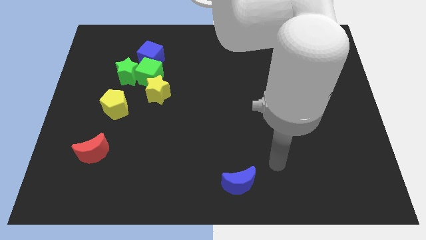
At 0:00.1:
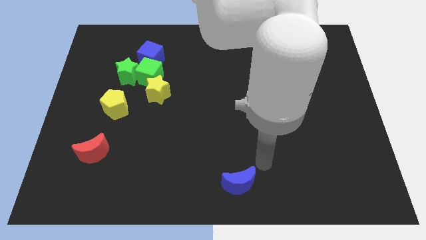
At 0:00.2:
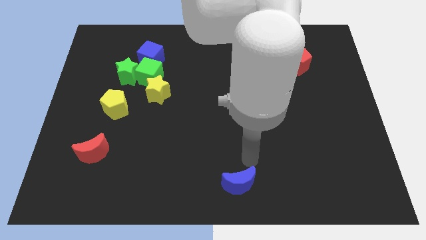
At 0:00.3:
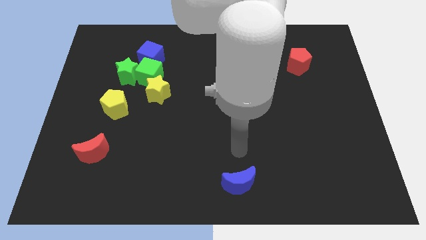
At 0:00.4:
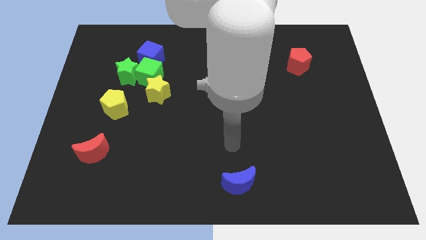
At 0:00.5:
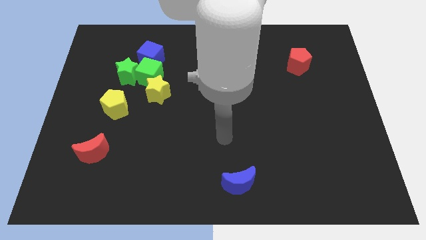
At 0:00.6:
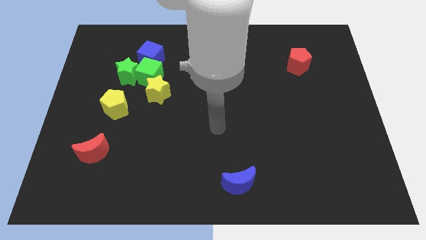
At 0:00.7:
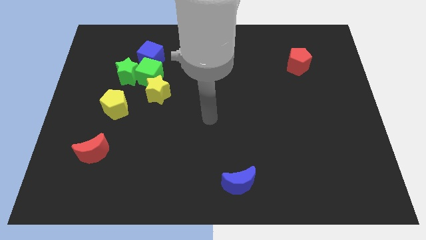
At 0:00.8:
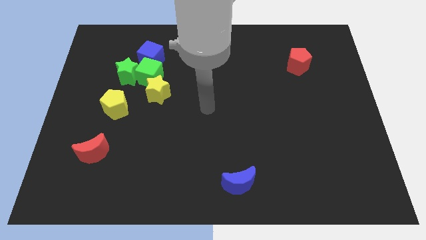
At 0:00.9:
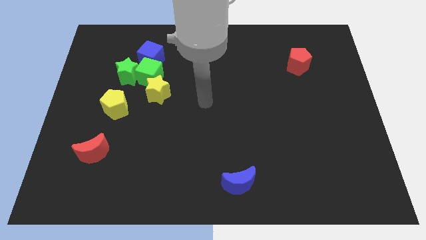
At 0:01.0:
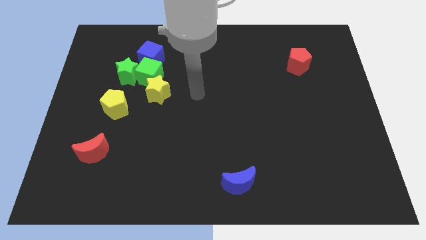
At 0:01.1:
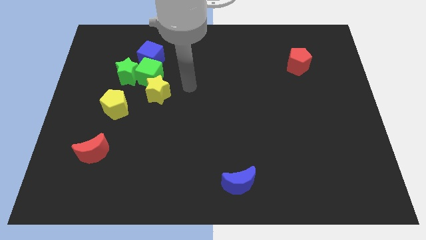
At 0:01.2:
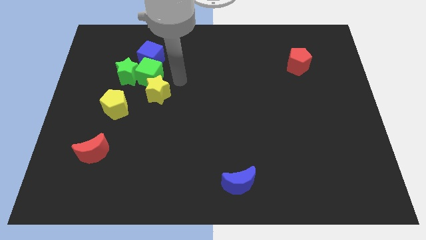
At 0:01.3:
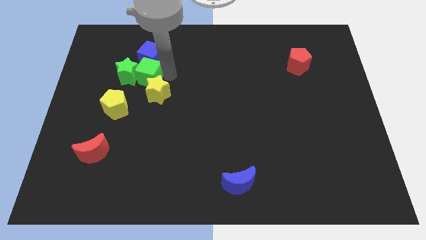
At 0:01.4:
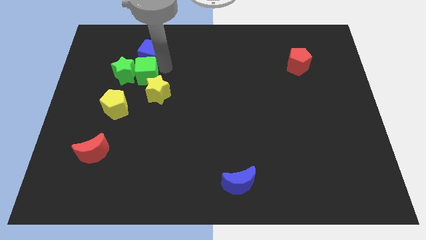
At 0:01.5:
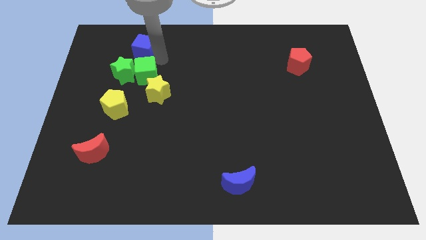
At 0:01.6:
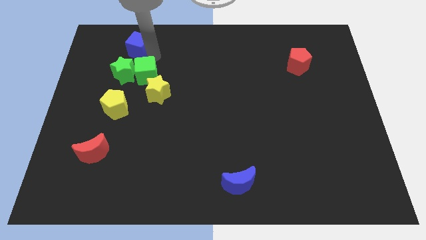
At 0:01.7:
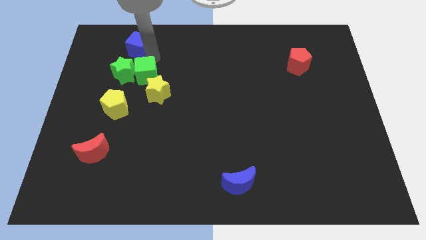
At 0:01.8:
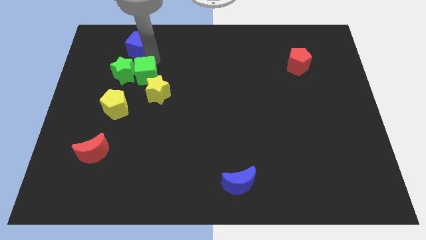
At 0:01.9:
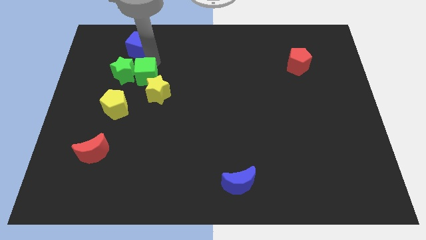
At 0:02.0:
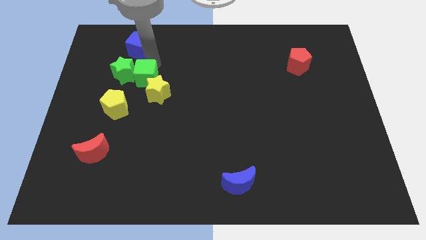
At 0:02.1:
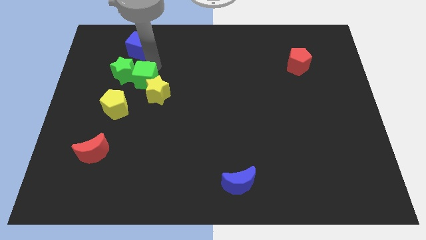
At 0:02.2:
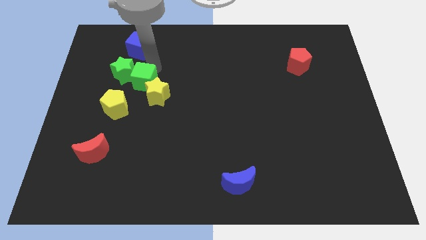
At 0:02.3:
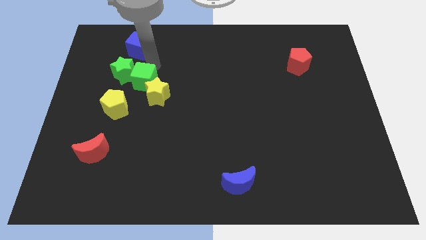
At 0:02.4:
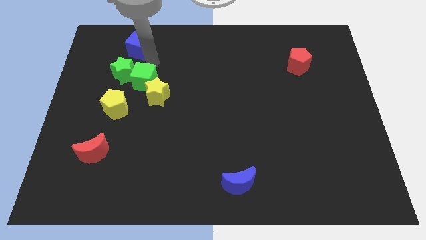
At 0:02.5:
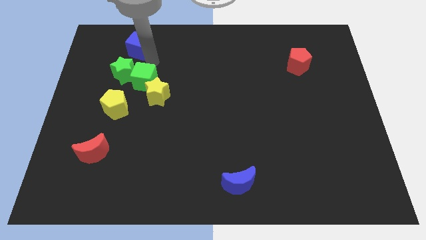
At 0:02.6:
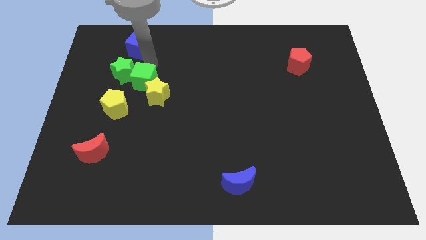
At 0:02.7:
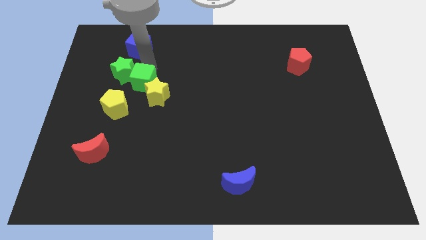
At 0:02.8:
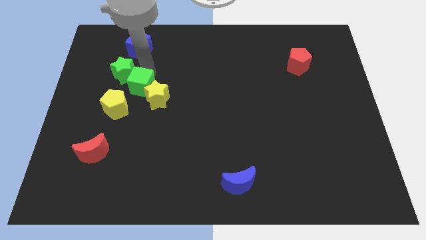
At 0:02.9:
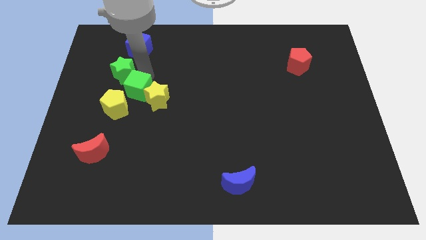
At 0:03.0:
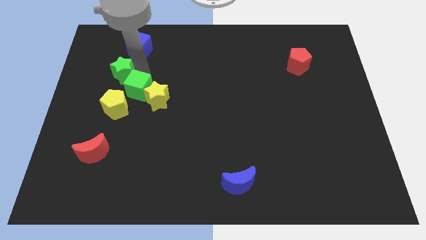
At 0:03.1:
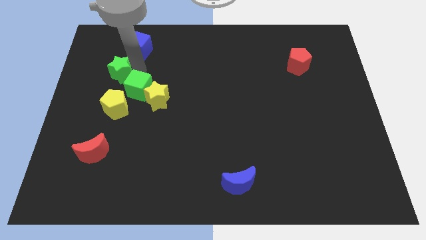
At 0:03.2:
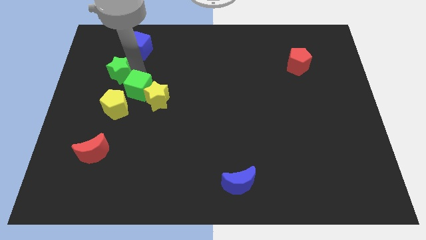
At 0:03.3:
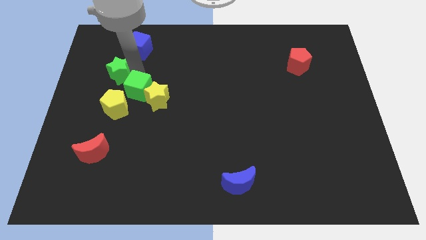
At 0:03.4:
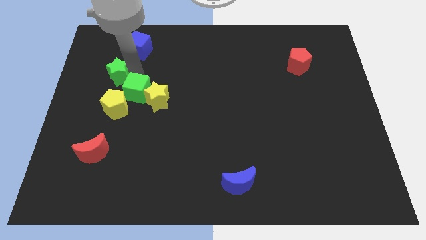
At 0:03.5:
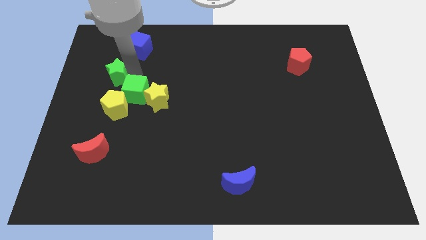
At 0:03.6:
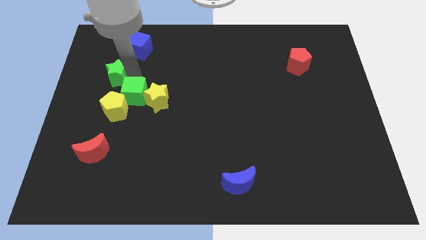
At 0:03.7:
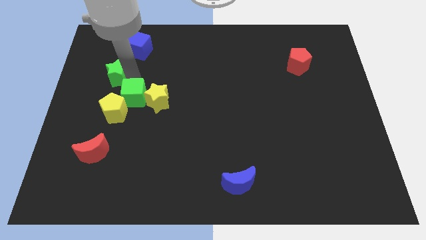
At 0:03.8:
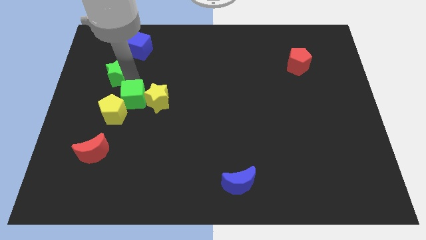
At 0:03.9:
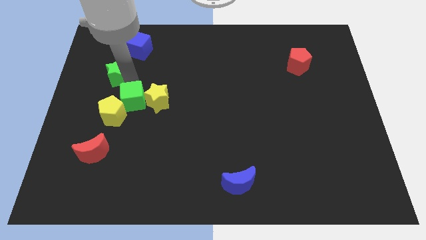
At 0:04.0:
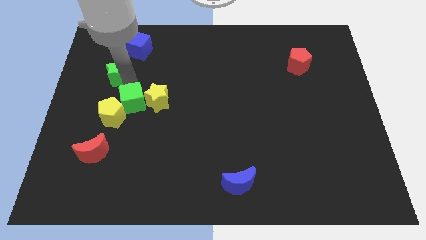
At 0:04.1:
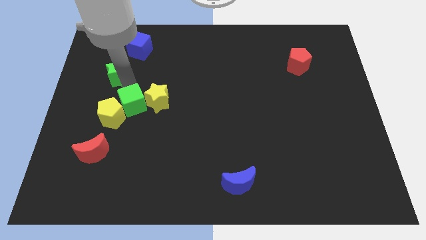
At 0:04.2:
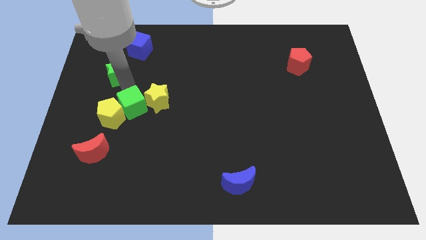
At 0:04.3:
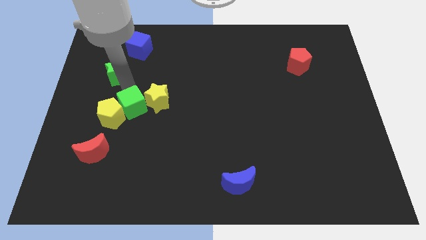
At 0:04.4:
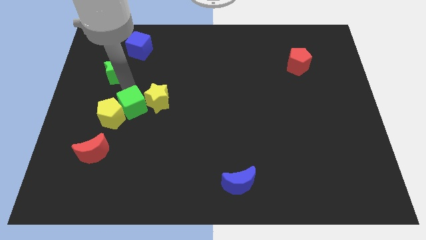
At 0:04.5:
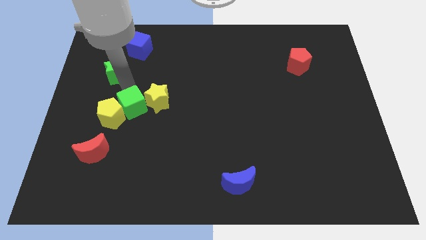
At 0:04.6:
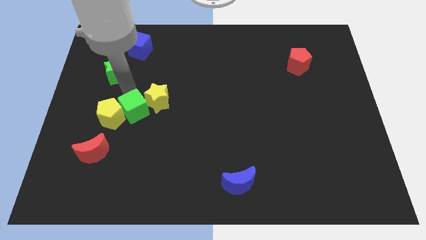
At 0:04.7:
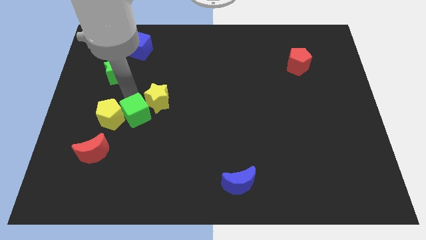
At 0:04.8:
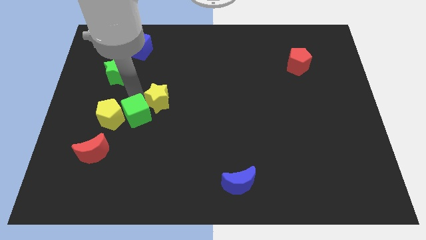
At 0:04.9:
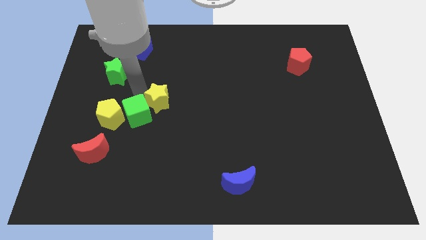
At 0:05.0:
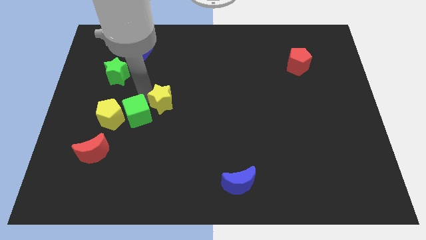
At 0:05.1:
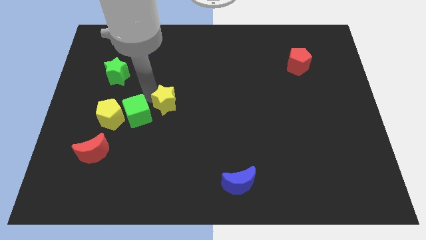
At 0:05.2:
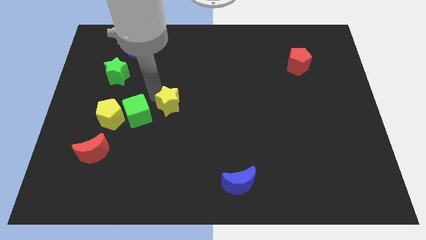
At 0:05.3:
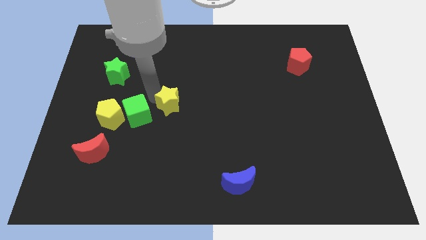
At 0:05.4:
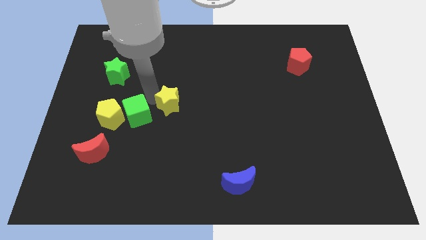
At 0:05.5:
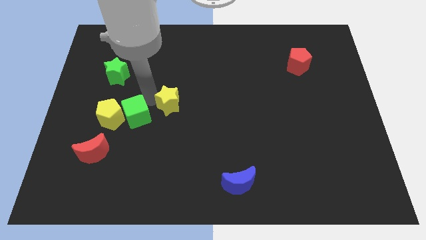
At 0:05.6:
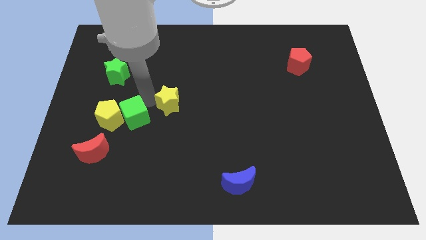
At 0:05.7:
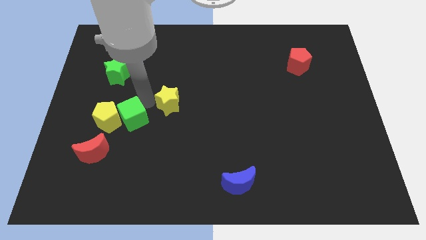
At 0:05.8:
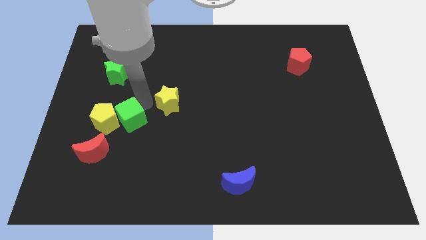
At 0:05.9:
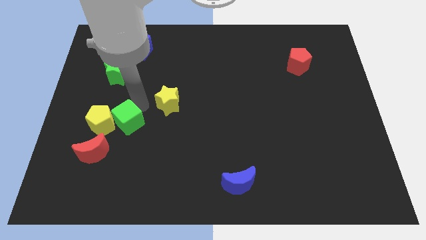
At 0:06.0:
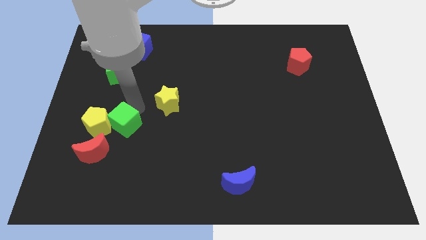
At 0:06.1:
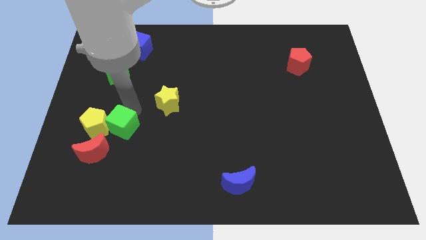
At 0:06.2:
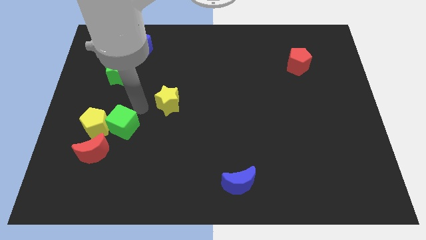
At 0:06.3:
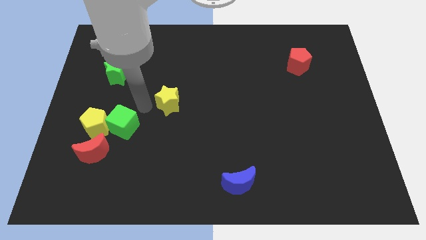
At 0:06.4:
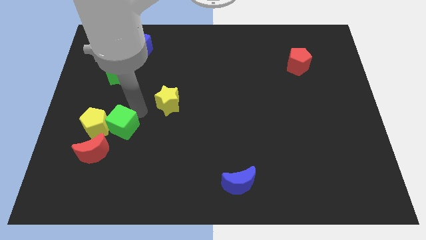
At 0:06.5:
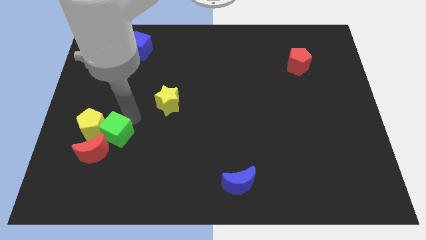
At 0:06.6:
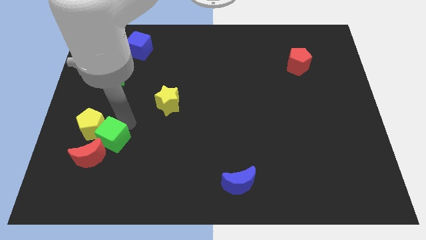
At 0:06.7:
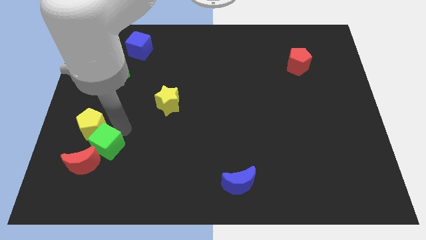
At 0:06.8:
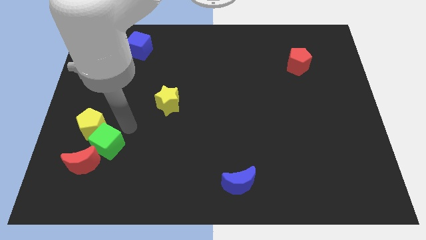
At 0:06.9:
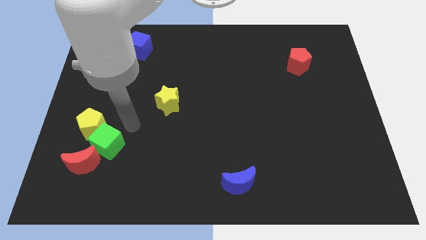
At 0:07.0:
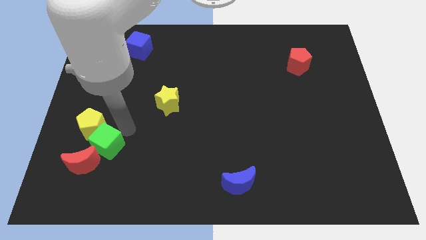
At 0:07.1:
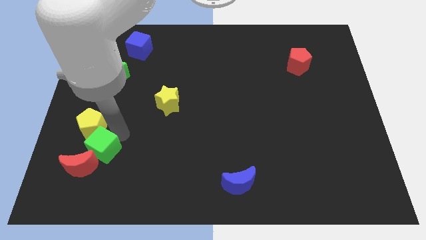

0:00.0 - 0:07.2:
put the green cube to the red moon
